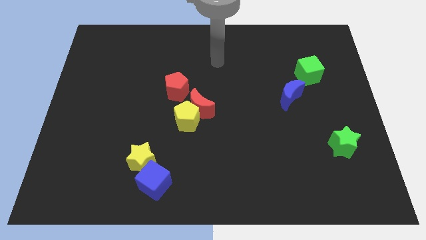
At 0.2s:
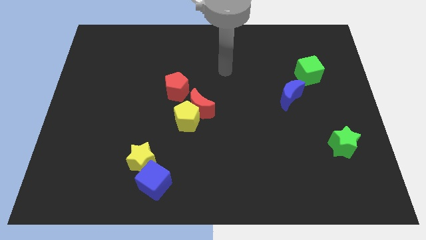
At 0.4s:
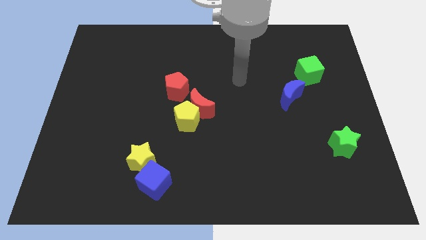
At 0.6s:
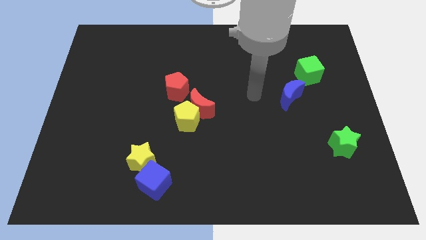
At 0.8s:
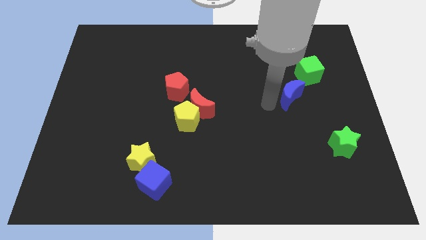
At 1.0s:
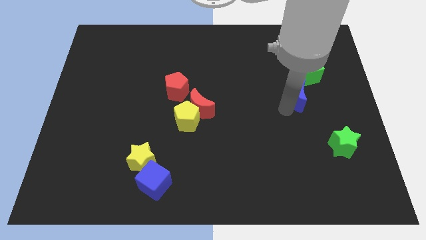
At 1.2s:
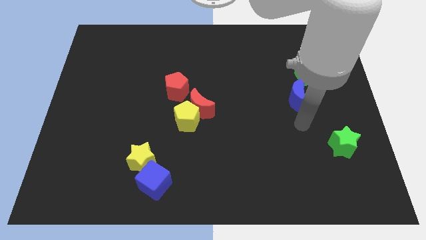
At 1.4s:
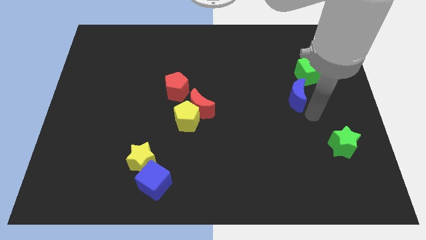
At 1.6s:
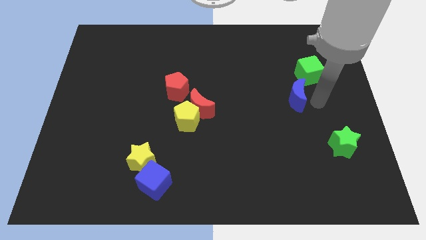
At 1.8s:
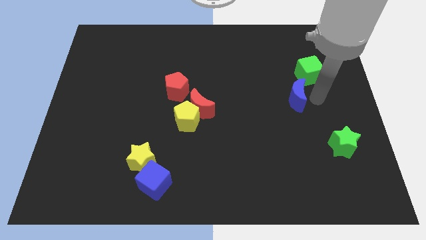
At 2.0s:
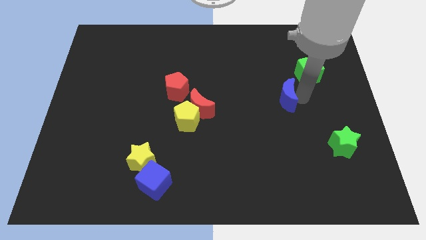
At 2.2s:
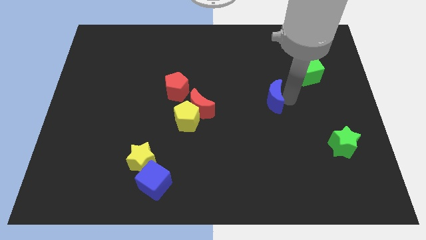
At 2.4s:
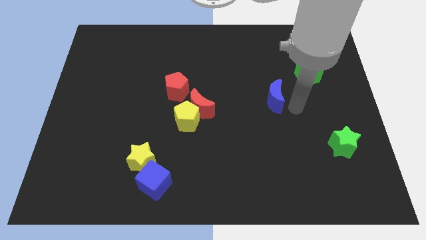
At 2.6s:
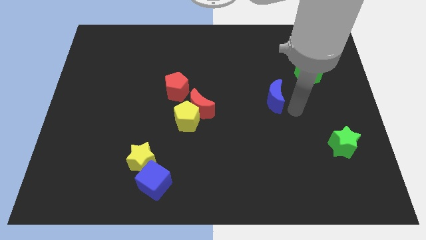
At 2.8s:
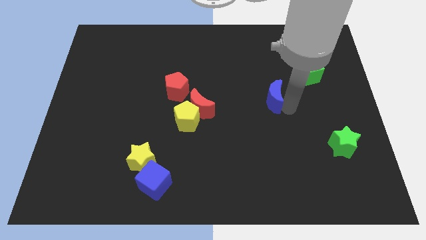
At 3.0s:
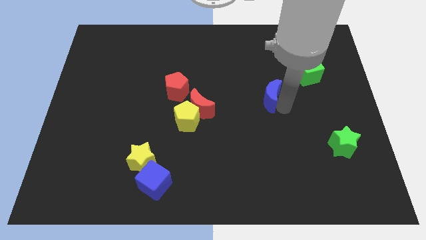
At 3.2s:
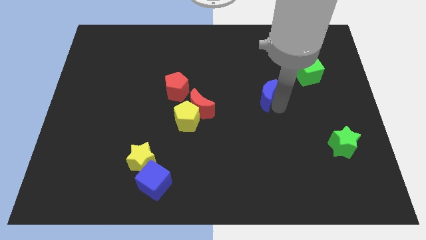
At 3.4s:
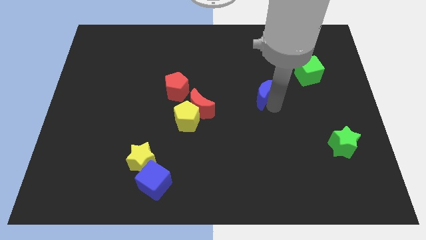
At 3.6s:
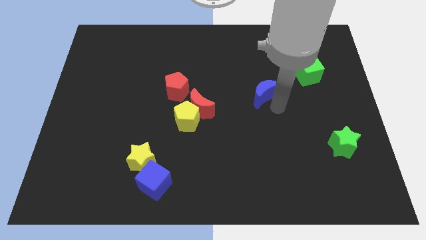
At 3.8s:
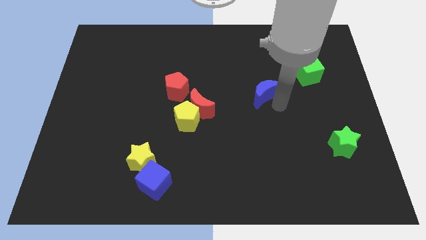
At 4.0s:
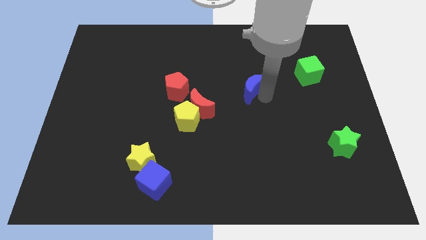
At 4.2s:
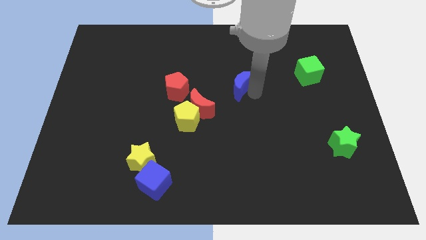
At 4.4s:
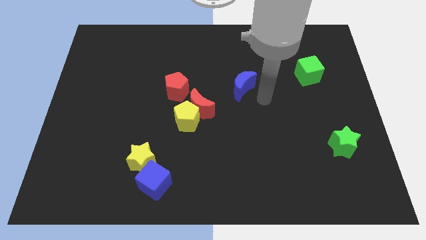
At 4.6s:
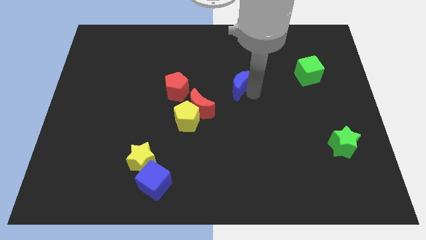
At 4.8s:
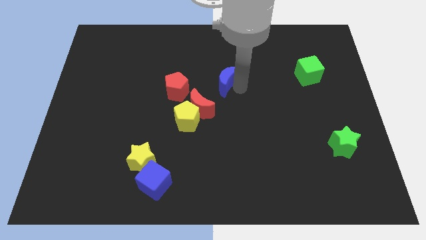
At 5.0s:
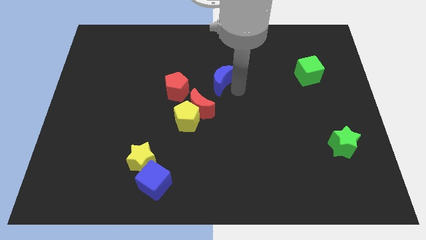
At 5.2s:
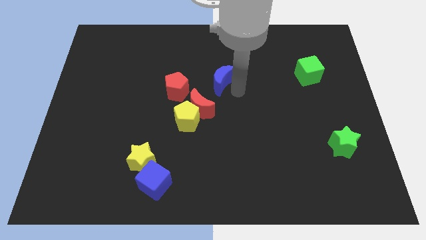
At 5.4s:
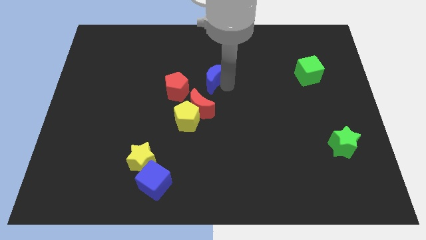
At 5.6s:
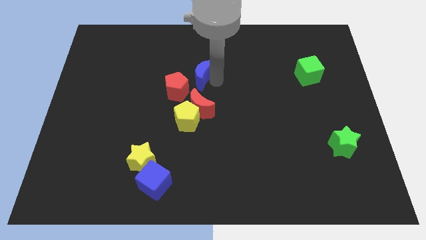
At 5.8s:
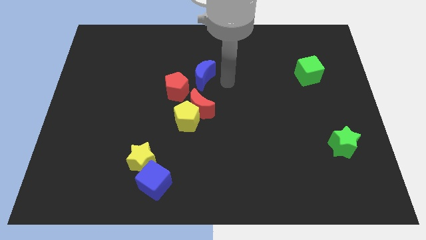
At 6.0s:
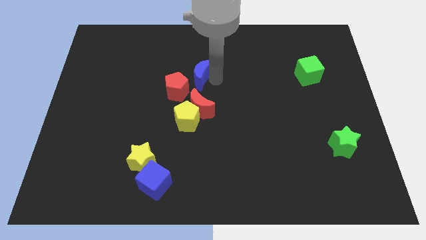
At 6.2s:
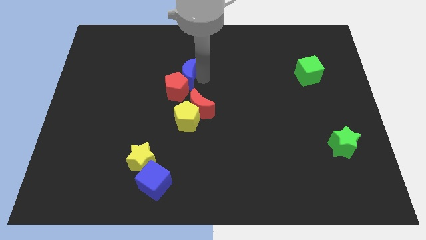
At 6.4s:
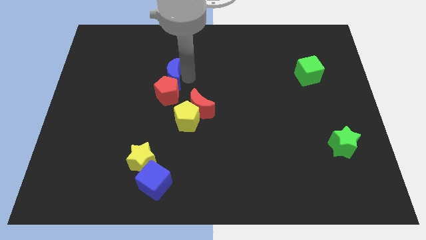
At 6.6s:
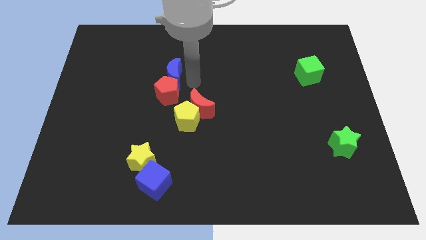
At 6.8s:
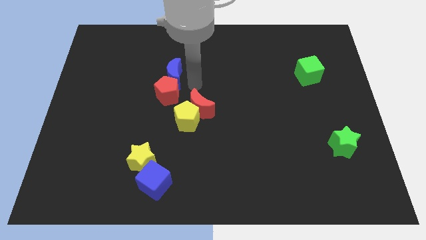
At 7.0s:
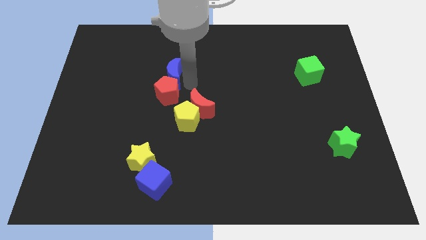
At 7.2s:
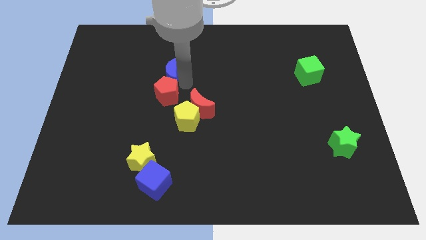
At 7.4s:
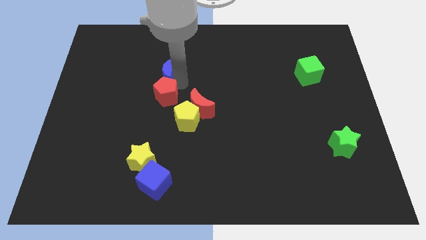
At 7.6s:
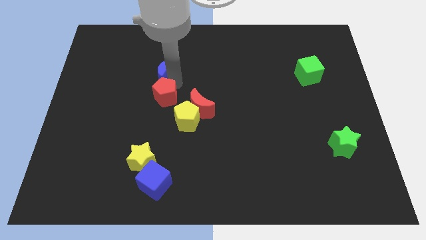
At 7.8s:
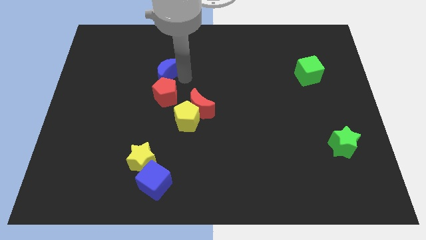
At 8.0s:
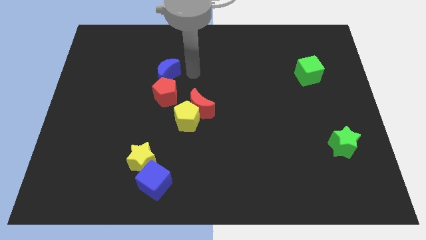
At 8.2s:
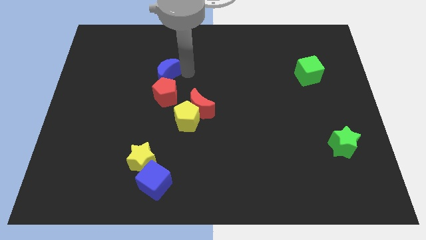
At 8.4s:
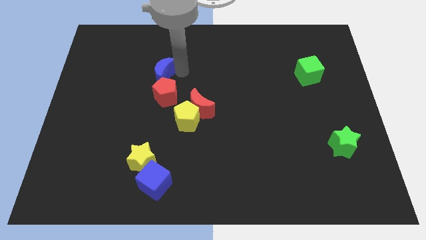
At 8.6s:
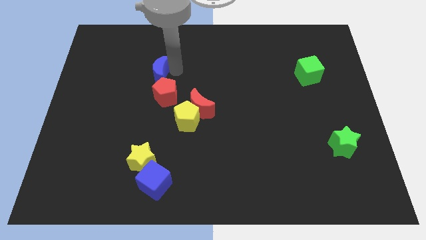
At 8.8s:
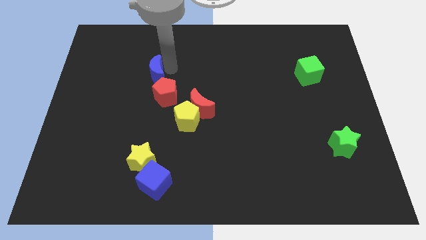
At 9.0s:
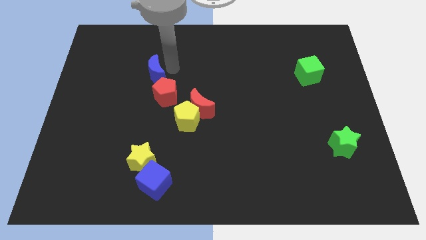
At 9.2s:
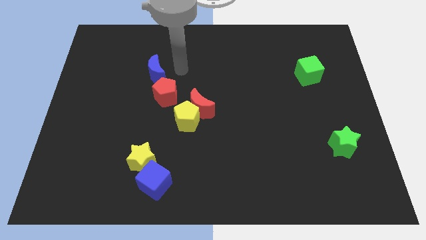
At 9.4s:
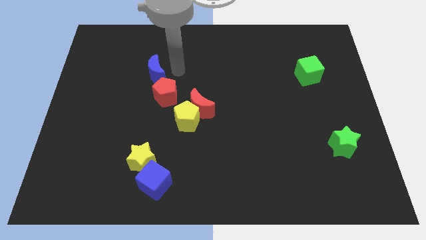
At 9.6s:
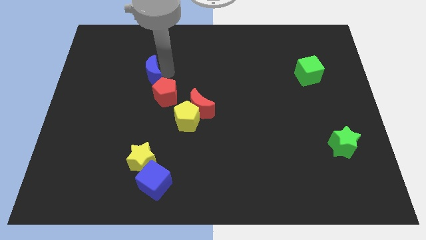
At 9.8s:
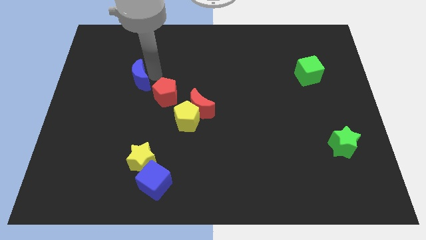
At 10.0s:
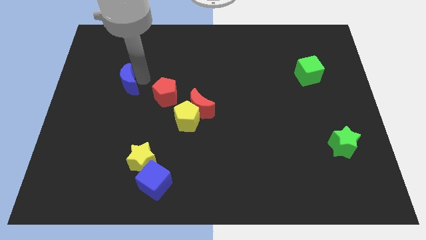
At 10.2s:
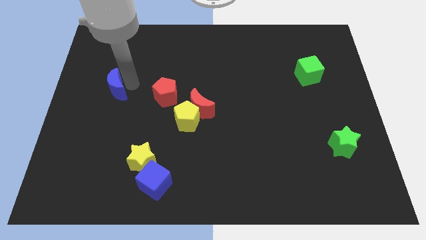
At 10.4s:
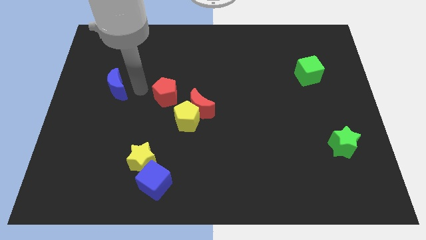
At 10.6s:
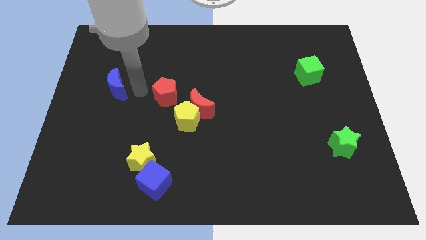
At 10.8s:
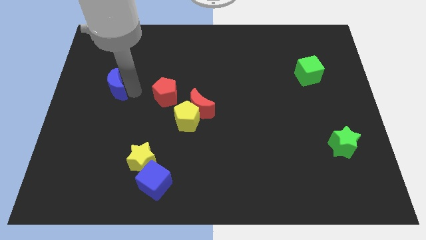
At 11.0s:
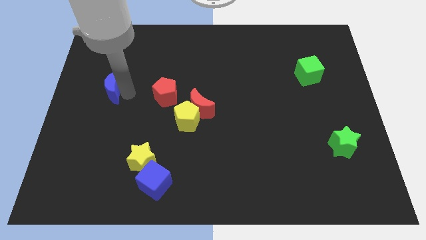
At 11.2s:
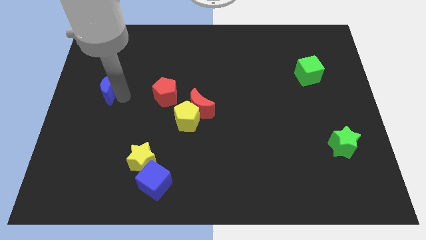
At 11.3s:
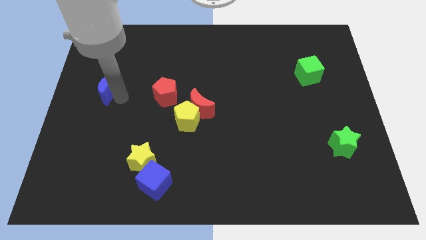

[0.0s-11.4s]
push the blue moon to the center left
